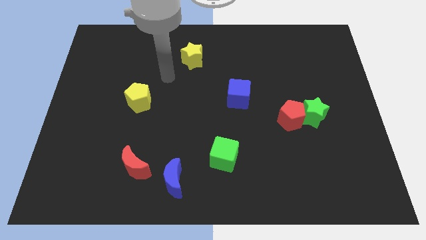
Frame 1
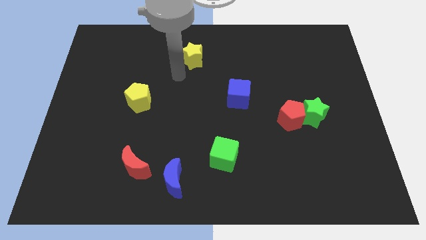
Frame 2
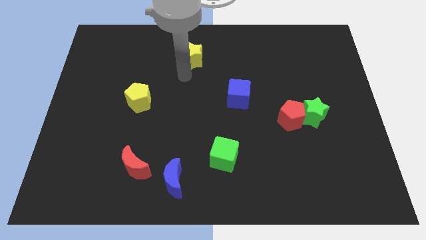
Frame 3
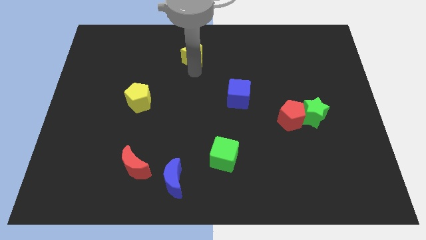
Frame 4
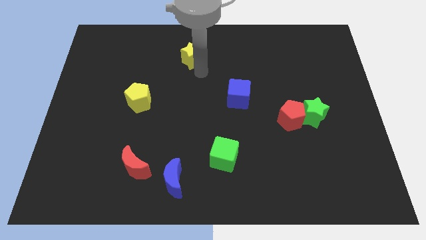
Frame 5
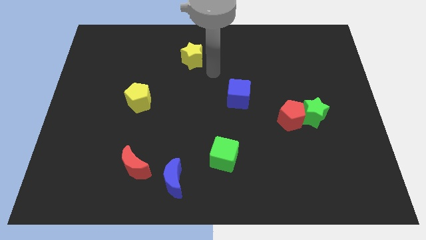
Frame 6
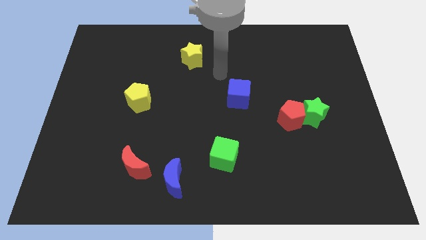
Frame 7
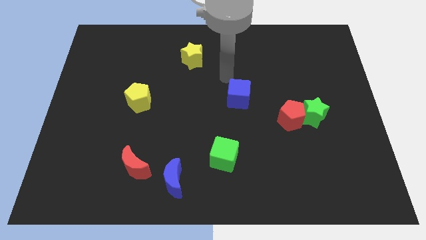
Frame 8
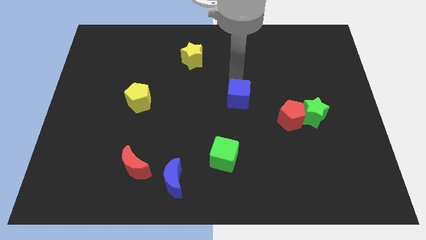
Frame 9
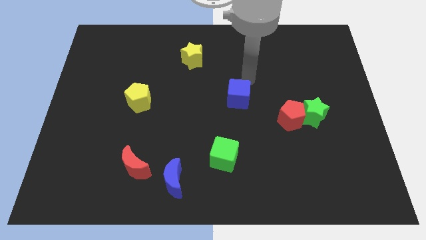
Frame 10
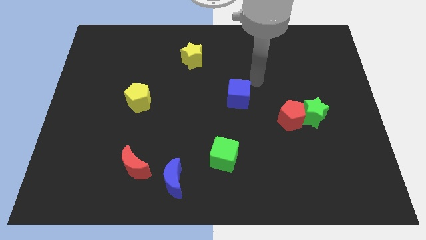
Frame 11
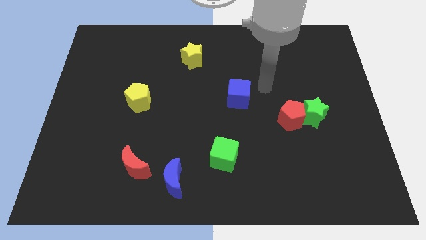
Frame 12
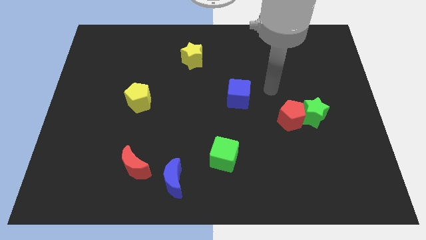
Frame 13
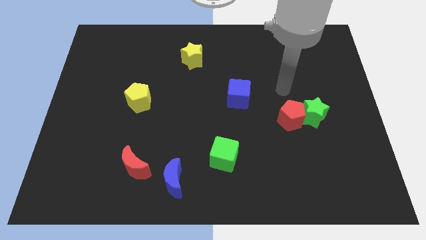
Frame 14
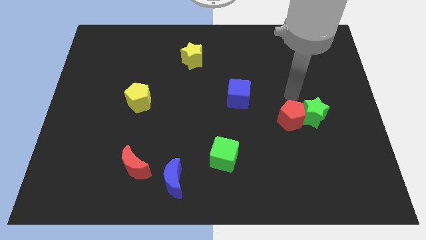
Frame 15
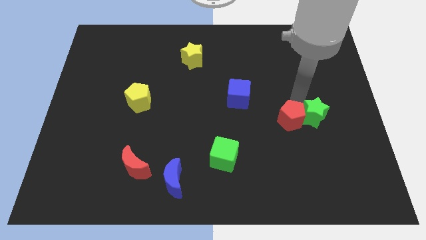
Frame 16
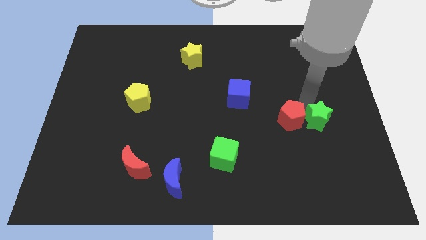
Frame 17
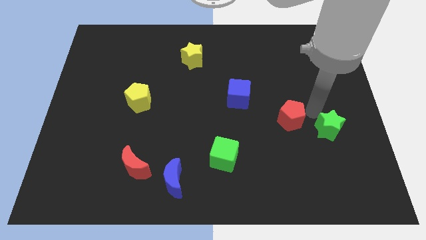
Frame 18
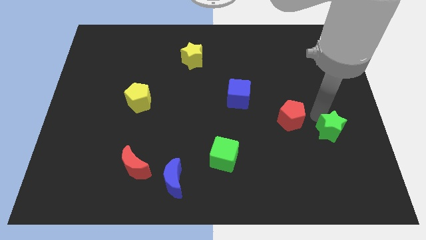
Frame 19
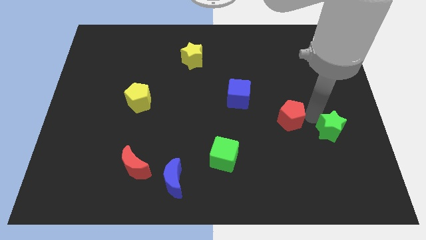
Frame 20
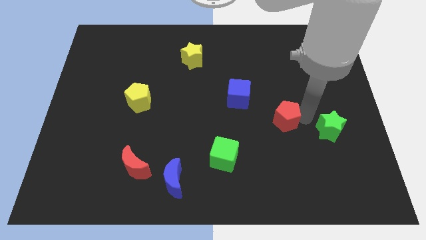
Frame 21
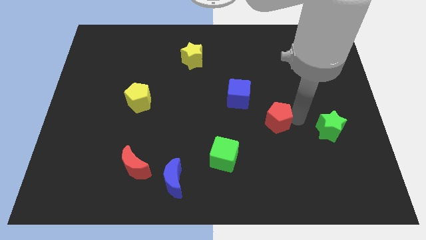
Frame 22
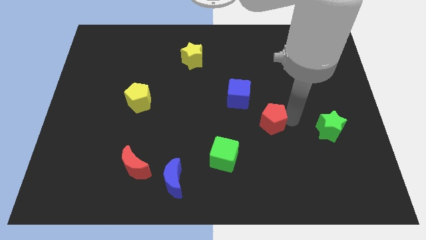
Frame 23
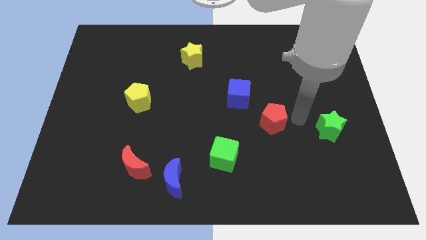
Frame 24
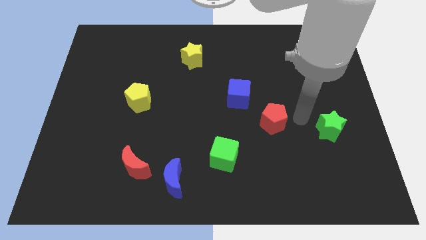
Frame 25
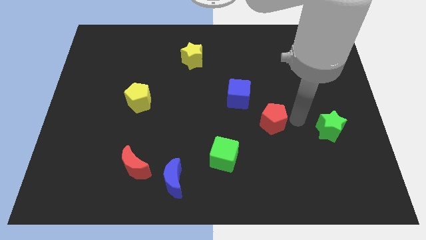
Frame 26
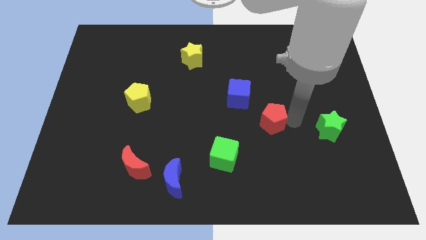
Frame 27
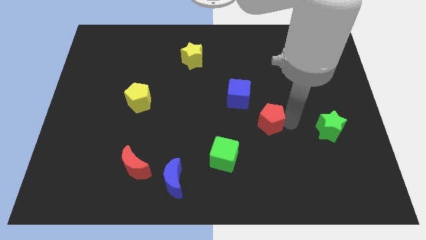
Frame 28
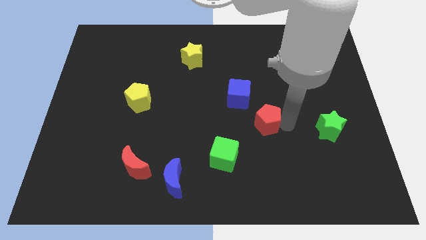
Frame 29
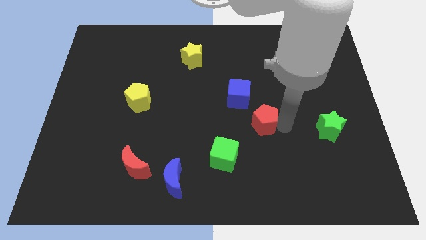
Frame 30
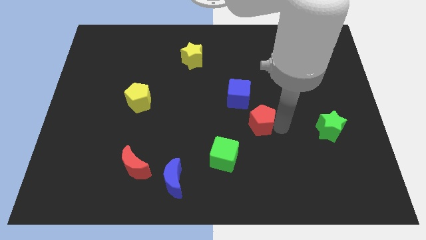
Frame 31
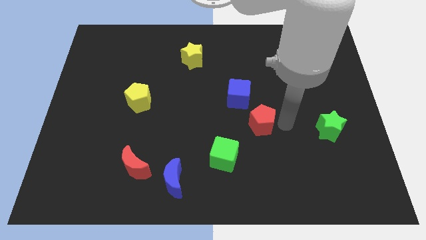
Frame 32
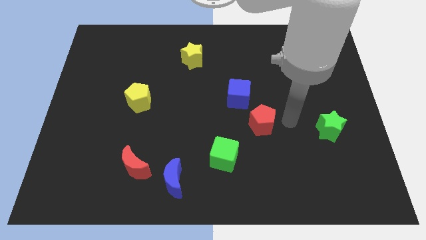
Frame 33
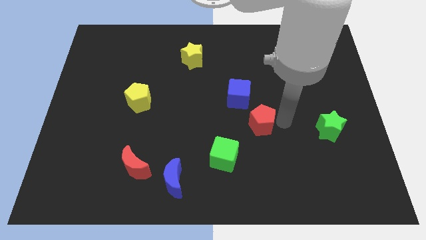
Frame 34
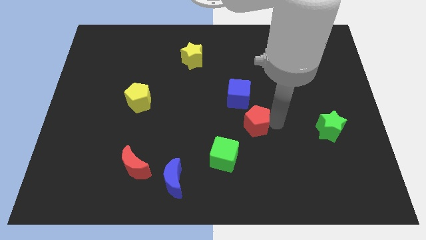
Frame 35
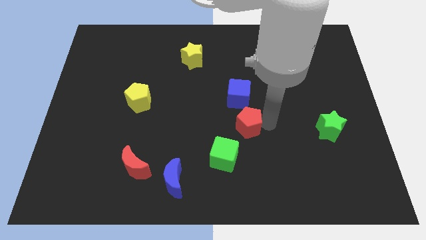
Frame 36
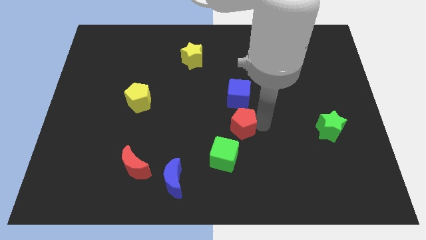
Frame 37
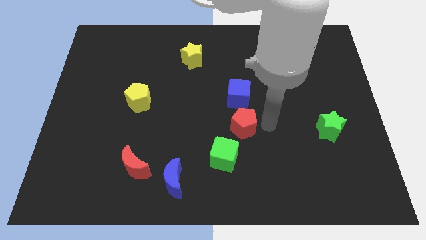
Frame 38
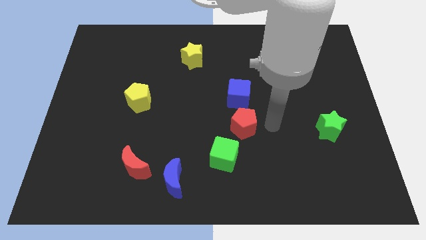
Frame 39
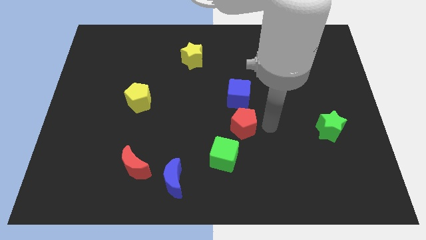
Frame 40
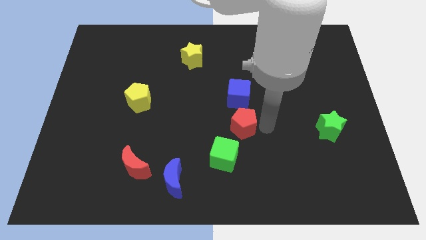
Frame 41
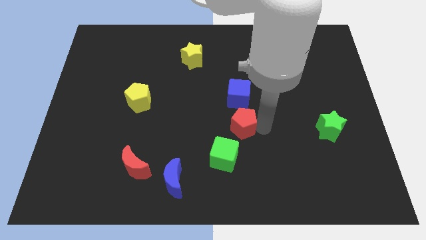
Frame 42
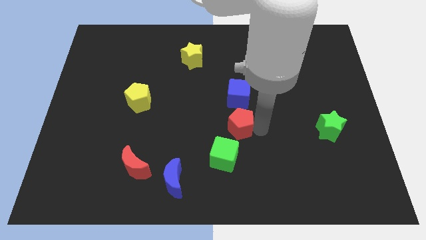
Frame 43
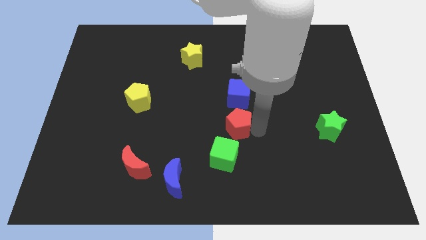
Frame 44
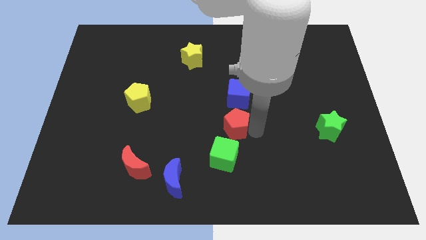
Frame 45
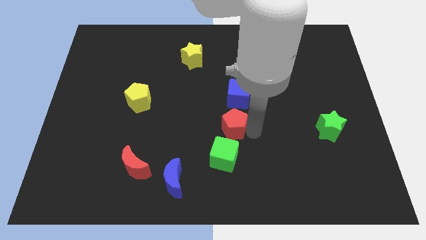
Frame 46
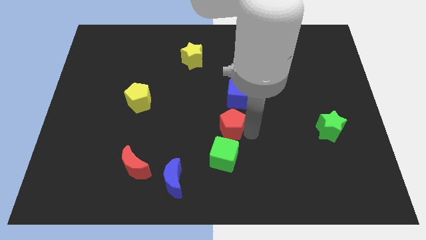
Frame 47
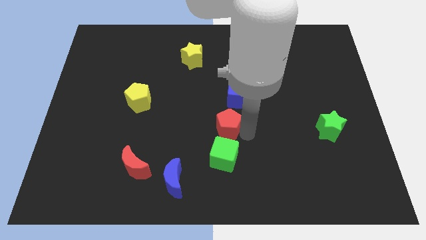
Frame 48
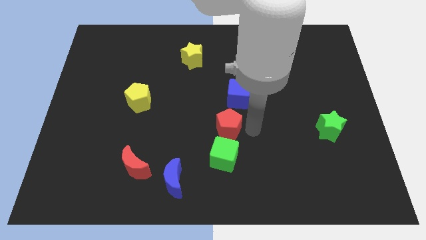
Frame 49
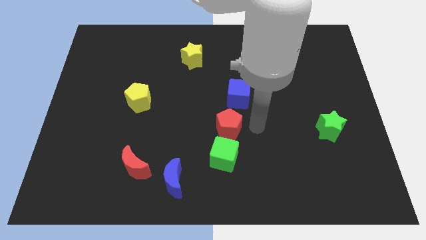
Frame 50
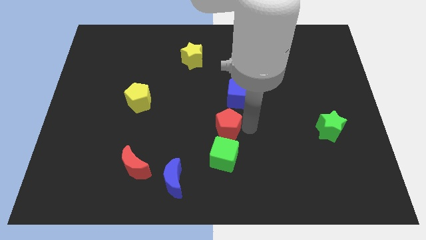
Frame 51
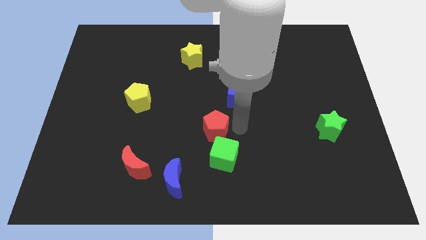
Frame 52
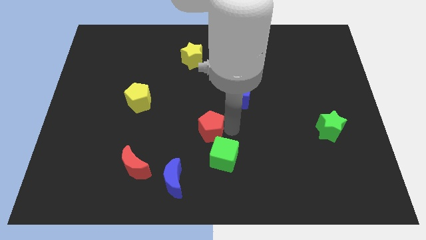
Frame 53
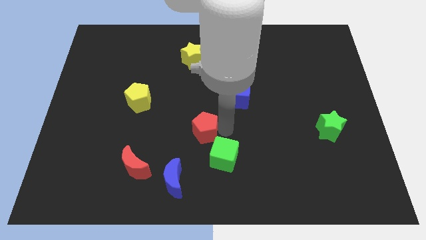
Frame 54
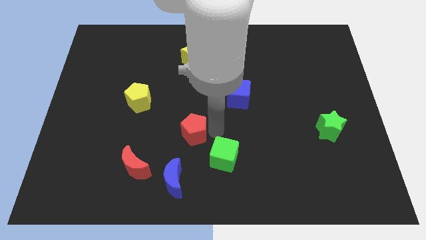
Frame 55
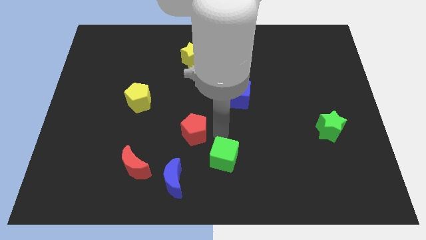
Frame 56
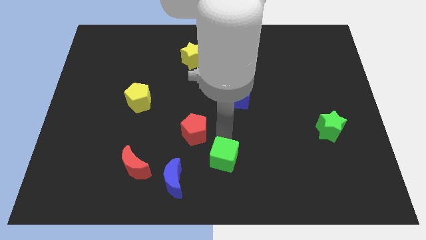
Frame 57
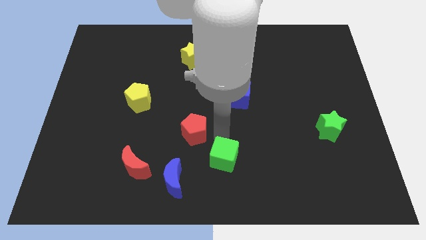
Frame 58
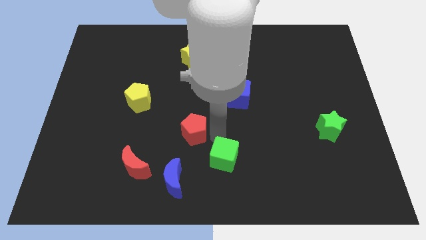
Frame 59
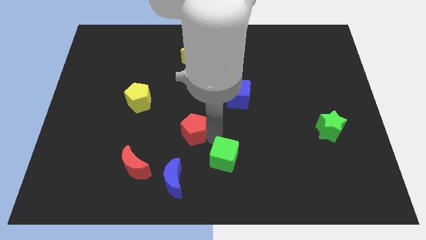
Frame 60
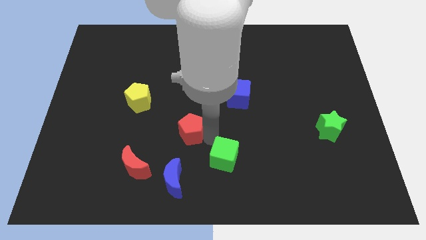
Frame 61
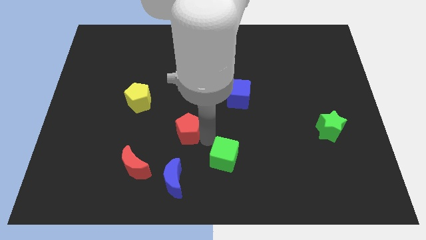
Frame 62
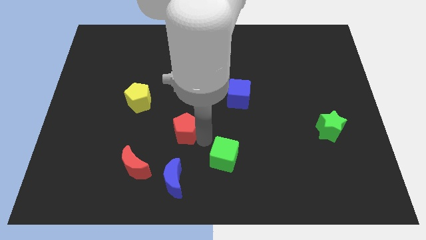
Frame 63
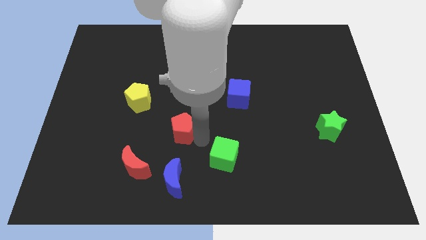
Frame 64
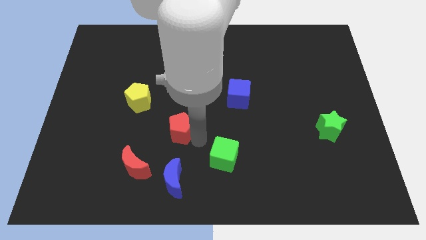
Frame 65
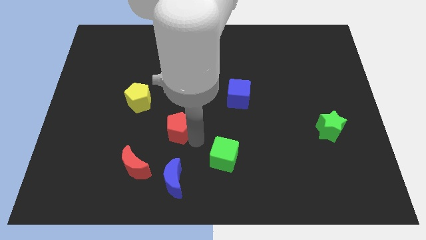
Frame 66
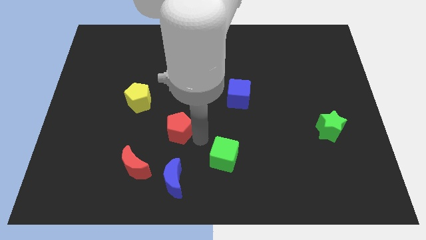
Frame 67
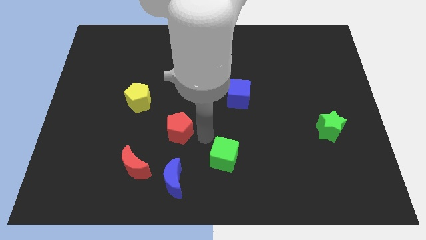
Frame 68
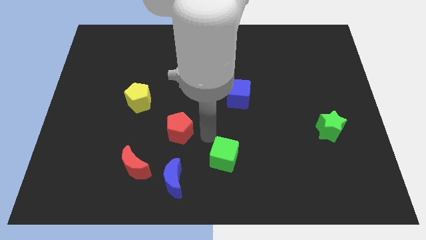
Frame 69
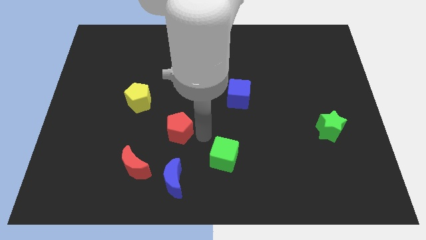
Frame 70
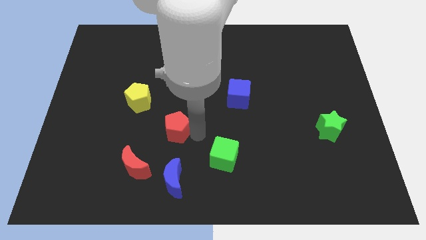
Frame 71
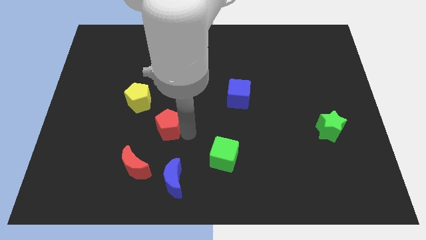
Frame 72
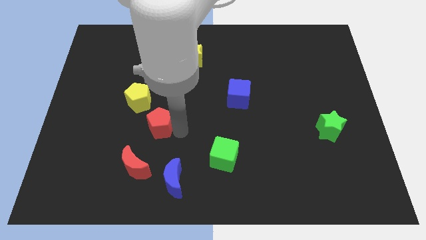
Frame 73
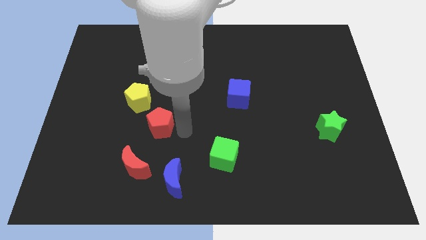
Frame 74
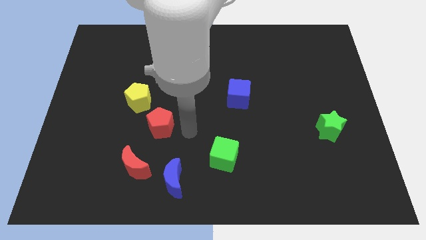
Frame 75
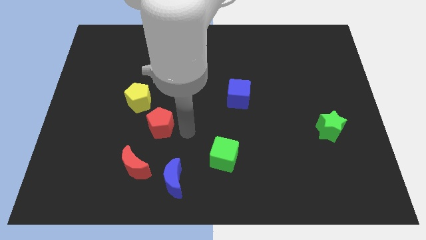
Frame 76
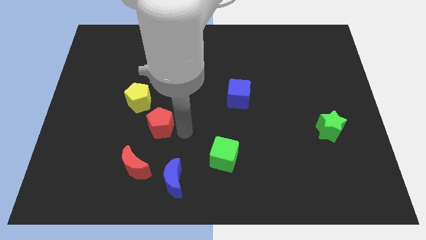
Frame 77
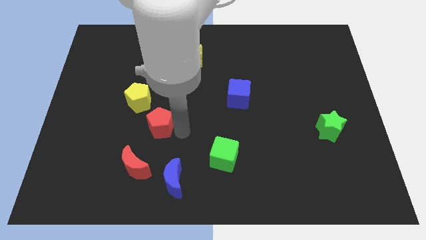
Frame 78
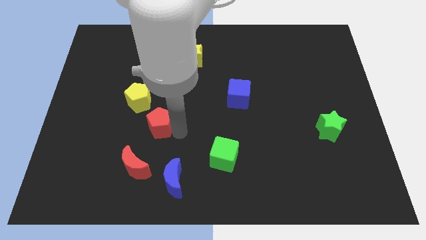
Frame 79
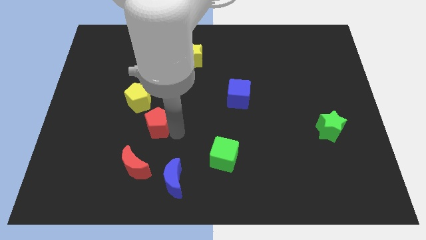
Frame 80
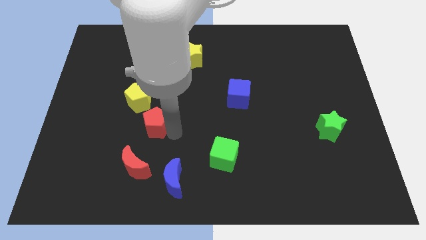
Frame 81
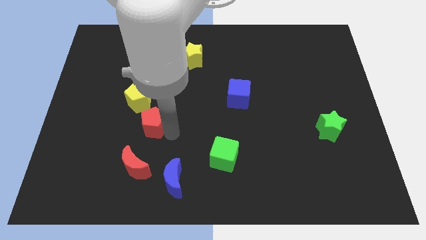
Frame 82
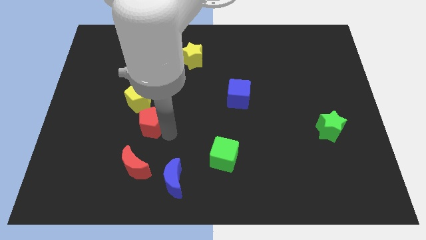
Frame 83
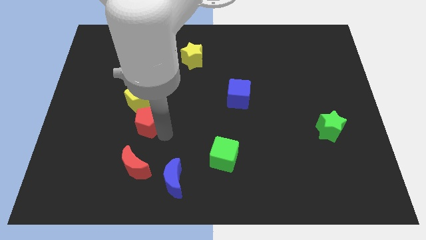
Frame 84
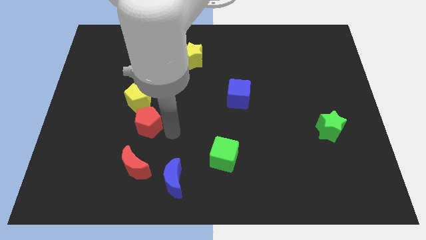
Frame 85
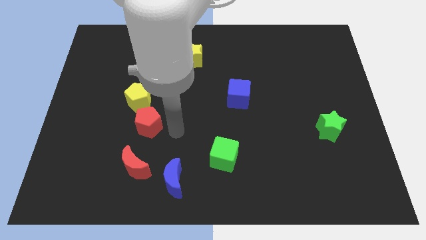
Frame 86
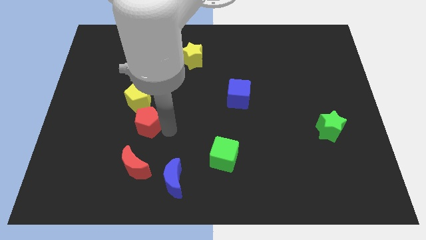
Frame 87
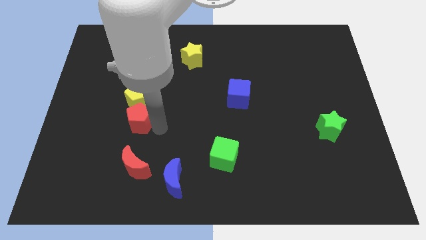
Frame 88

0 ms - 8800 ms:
push the red pentagon diagonally down and to the left of the yellow pentagon
